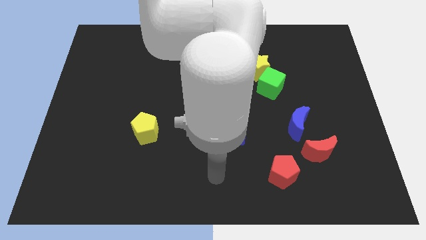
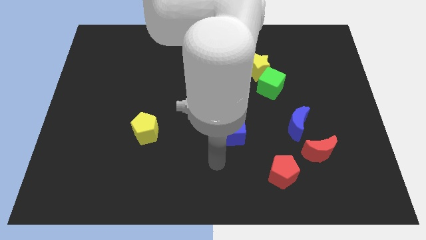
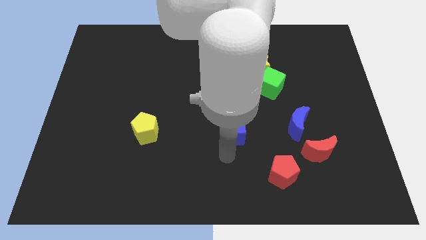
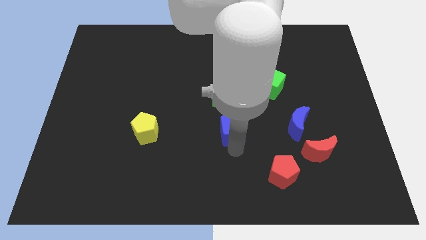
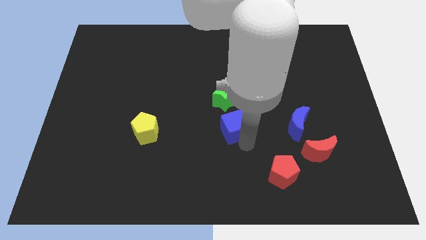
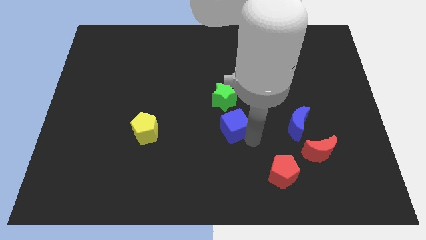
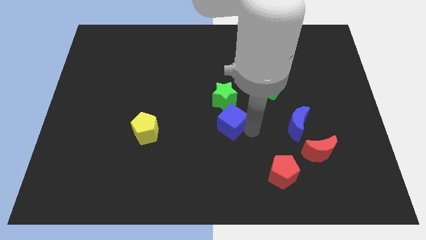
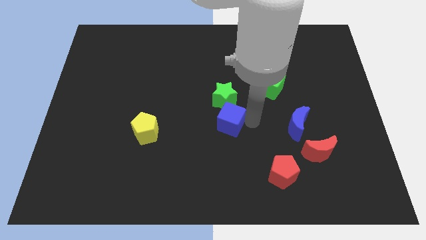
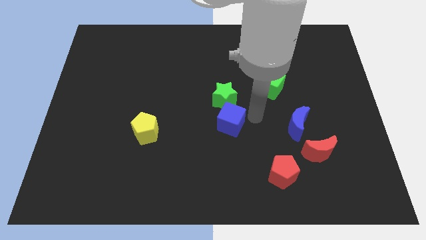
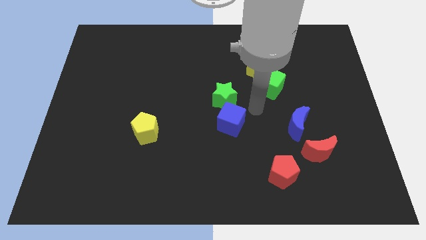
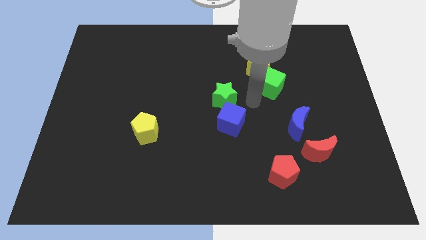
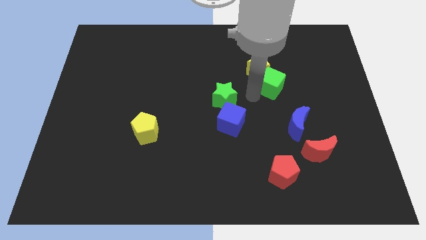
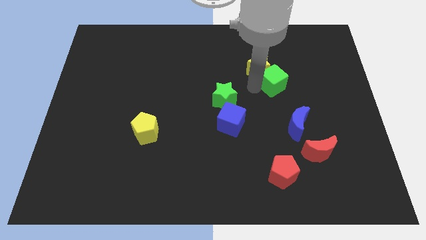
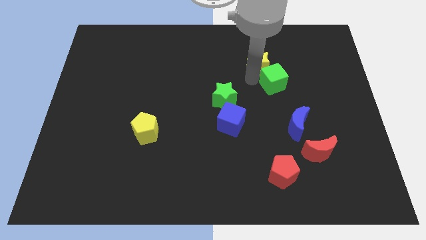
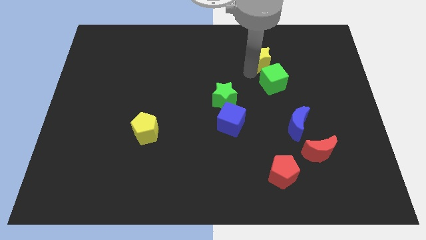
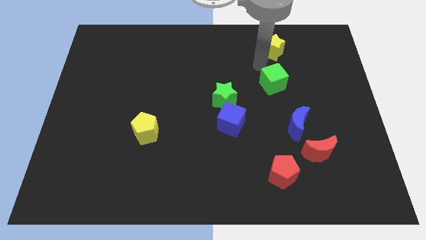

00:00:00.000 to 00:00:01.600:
pull the green cube apart from the yellow star

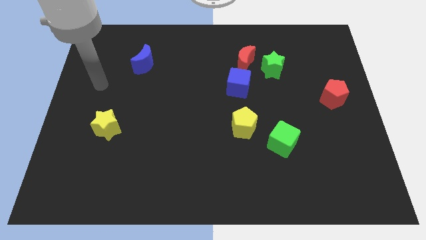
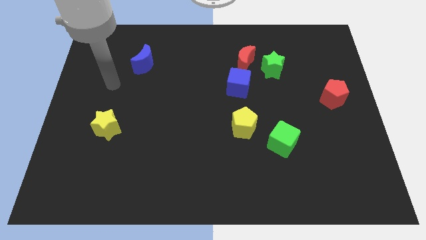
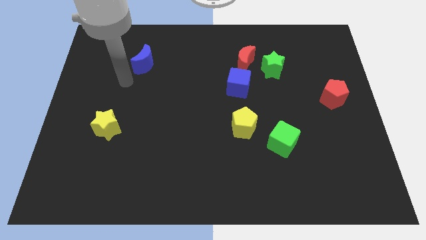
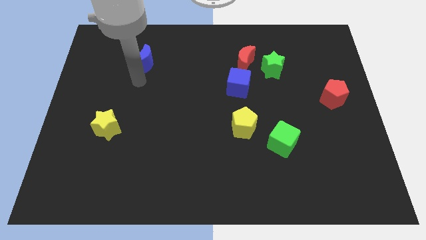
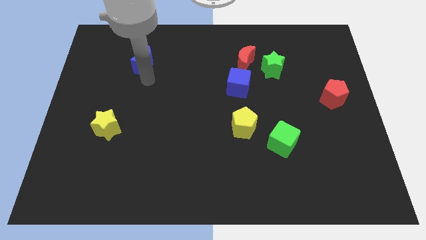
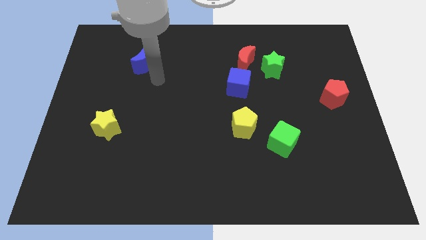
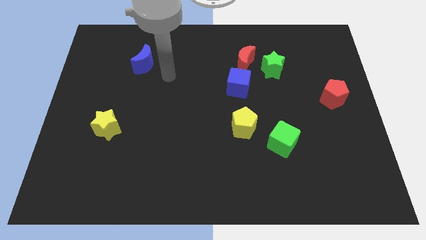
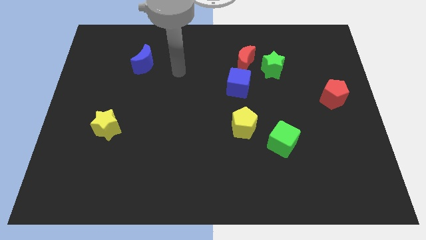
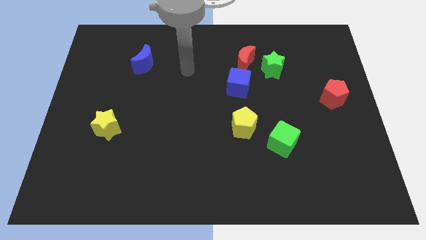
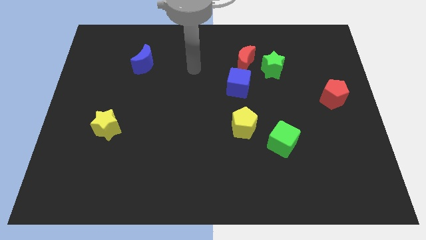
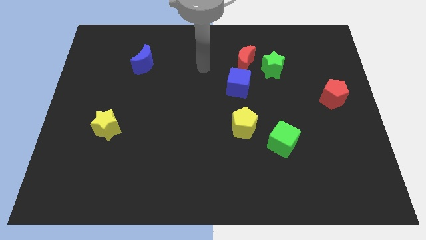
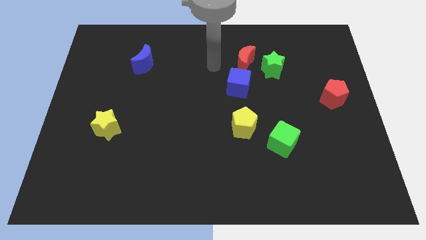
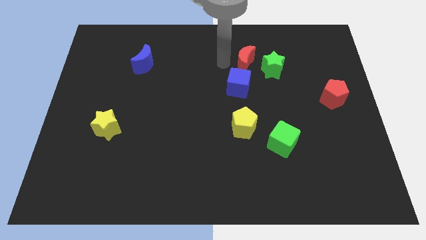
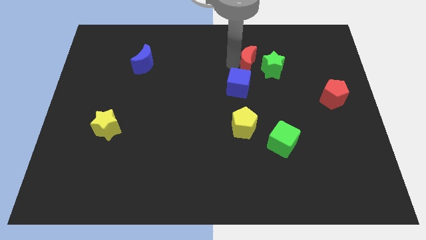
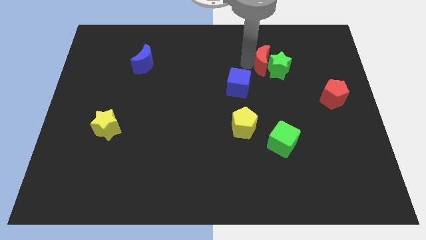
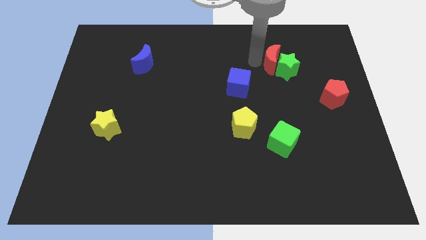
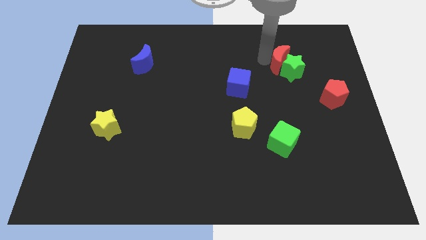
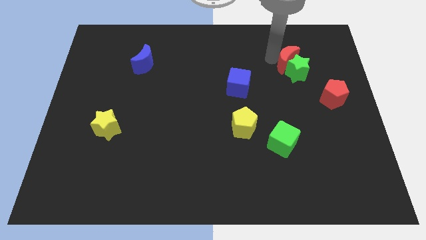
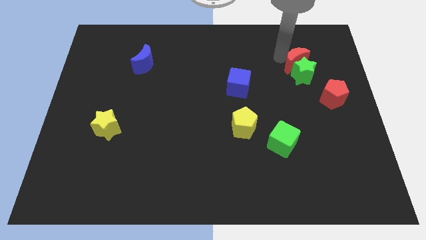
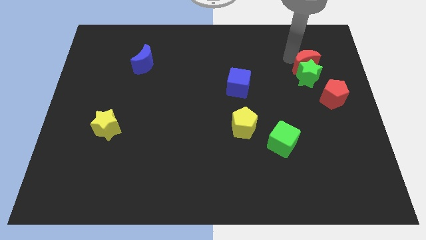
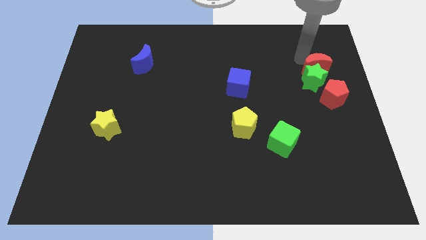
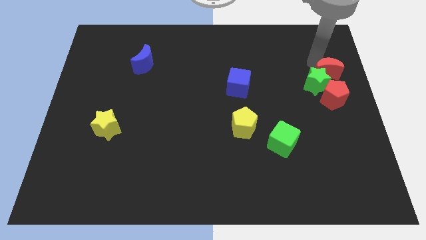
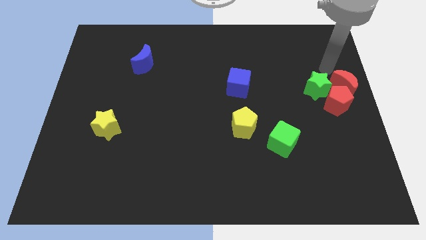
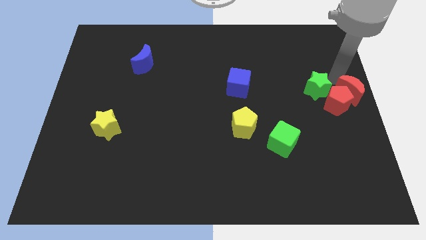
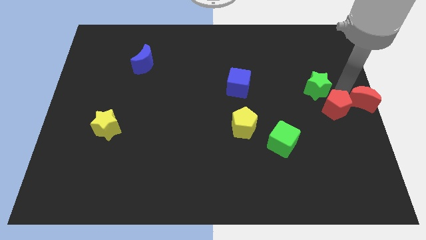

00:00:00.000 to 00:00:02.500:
move the green star away from the red moon

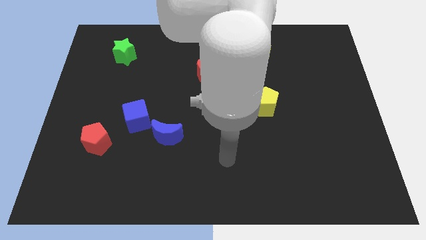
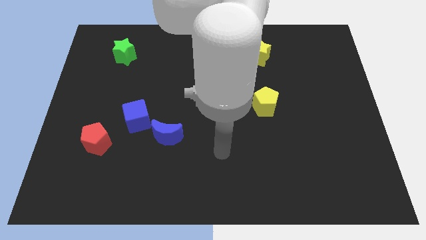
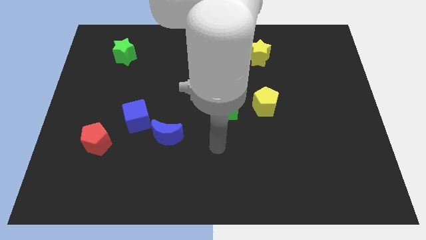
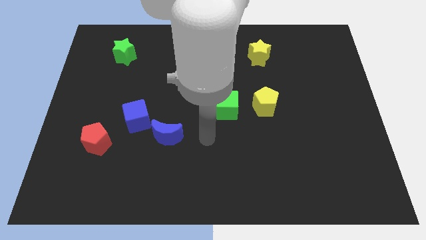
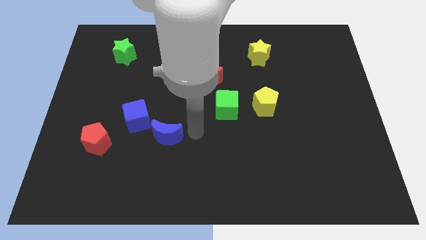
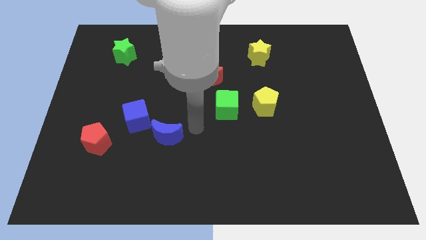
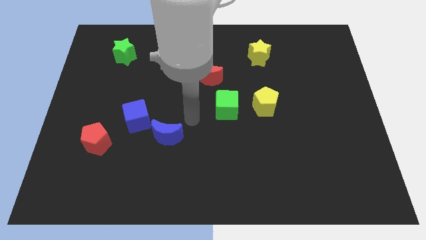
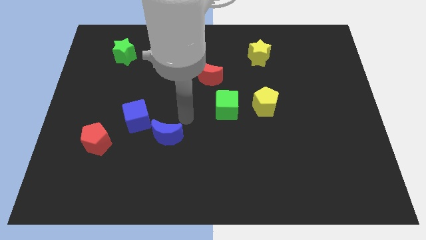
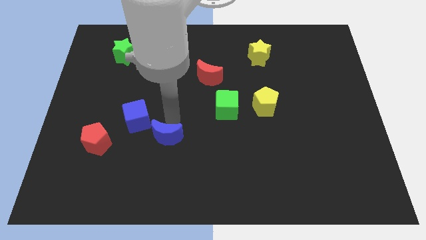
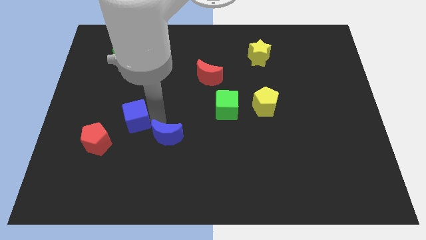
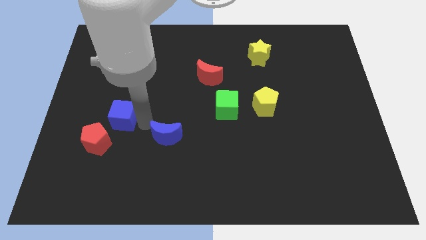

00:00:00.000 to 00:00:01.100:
move the blue moon away from the blue cube

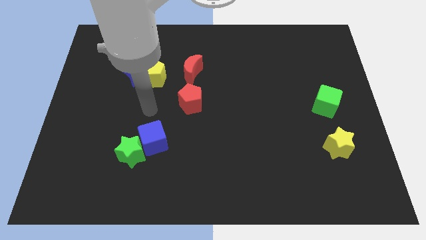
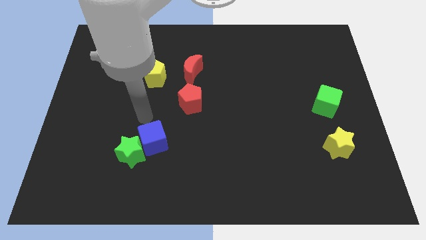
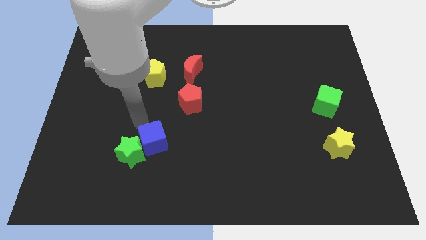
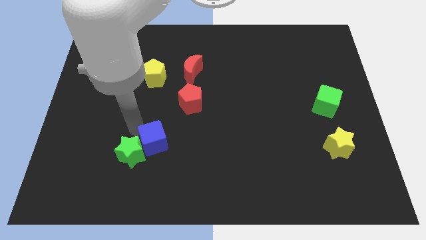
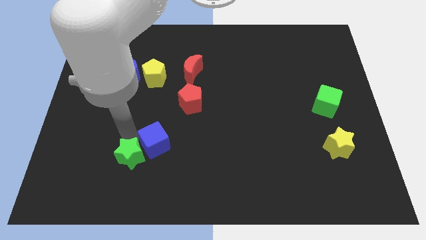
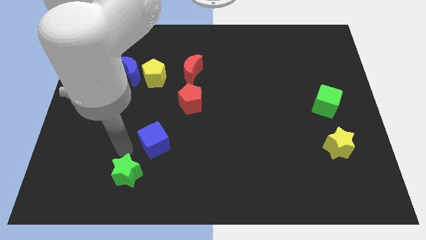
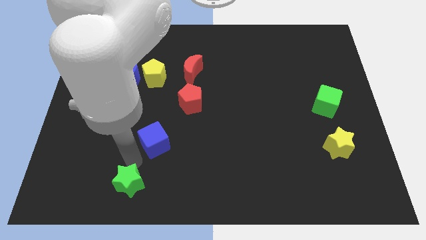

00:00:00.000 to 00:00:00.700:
pull the blue cube apart from the green star

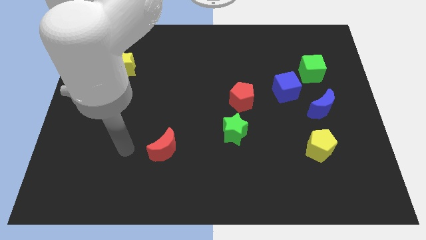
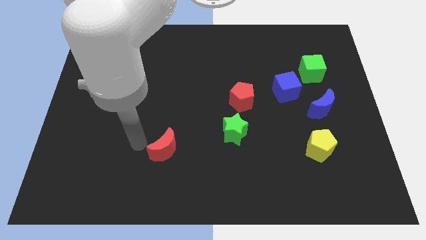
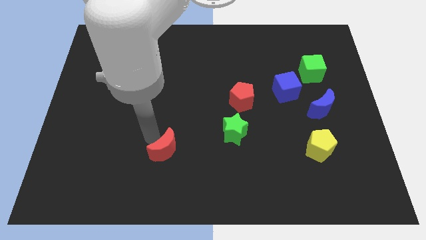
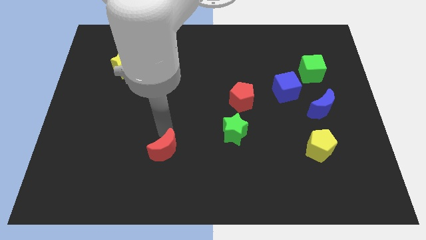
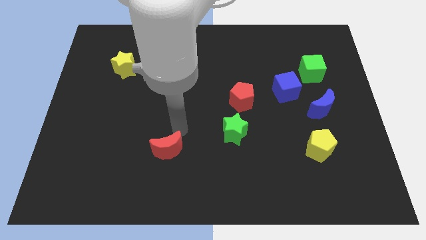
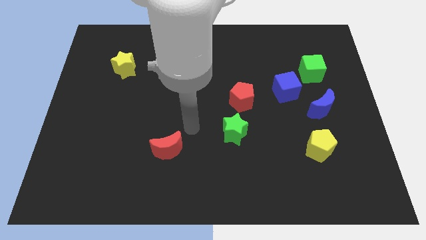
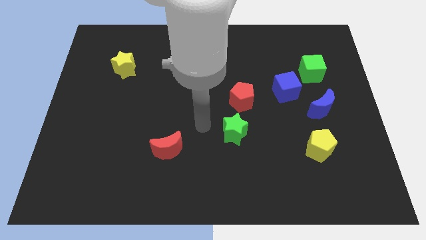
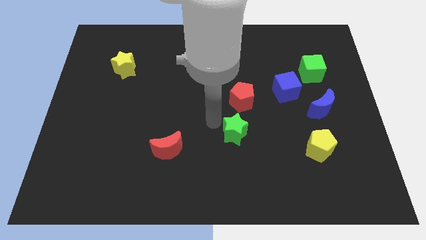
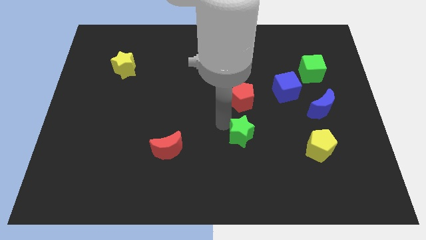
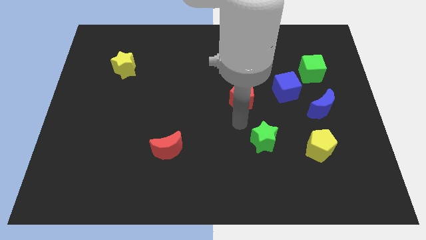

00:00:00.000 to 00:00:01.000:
move the red pentagon away from the green star

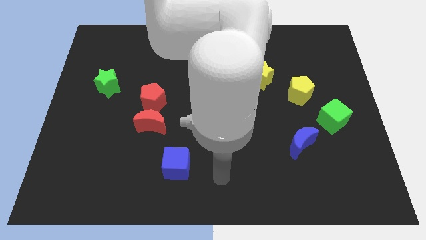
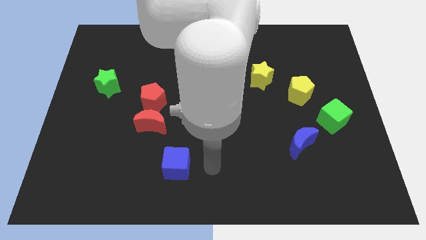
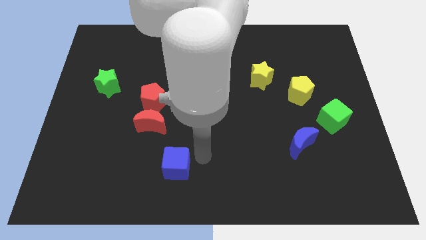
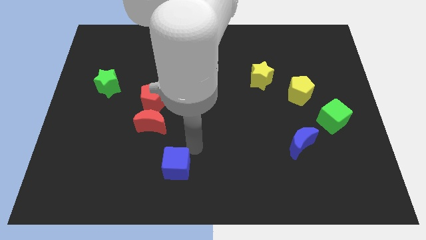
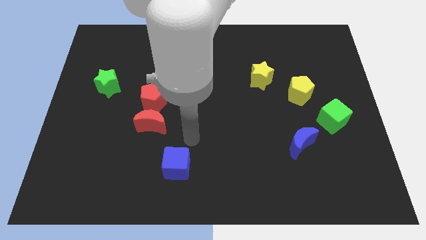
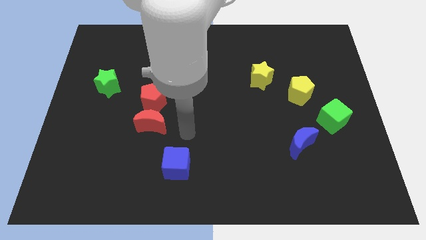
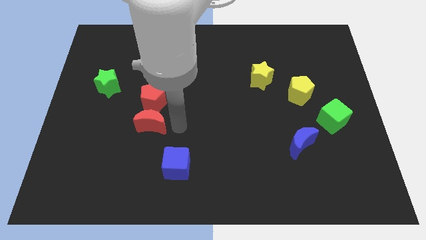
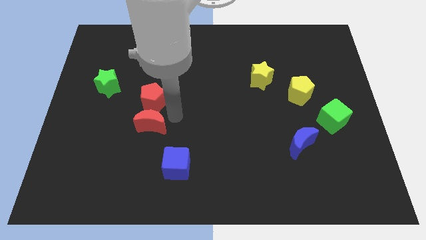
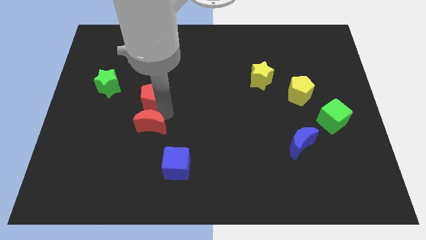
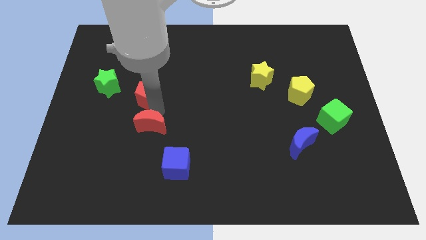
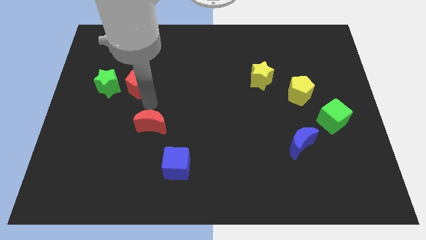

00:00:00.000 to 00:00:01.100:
separate the red moon from the red pentagon

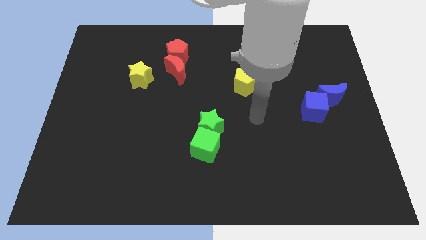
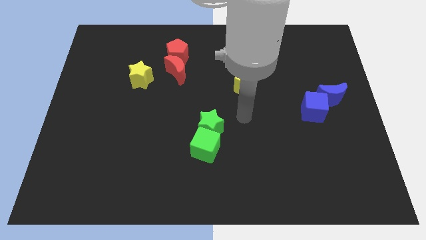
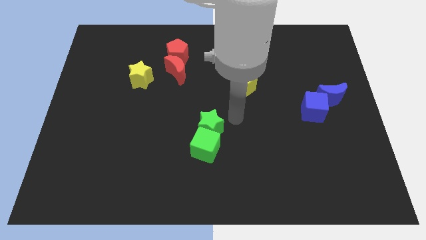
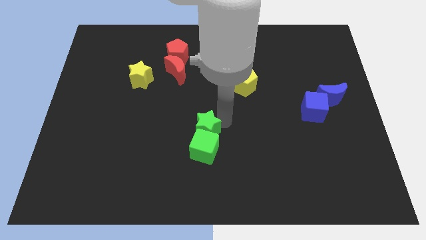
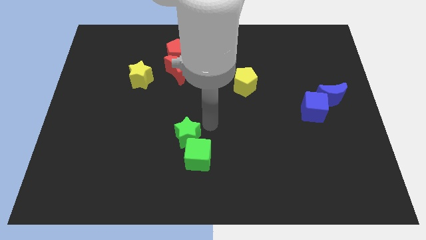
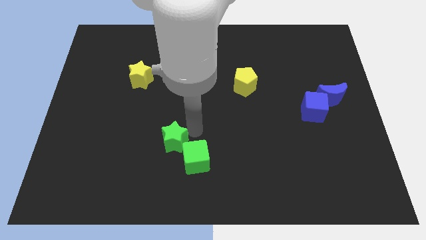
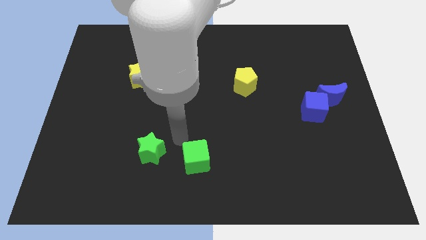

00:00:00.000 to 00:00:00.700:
move the green cube away from the green star

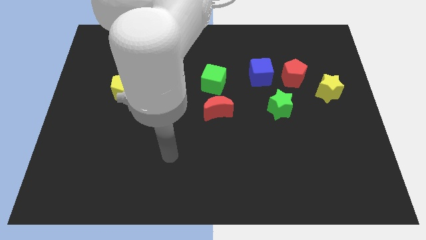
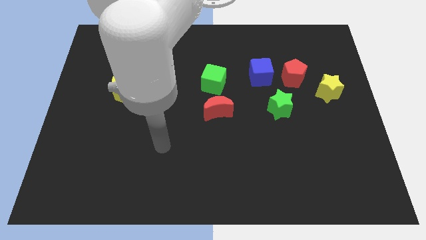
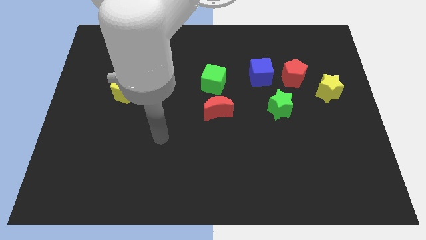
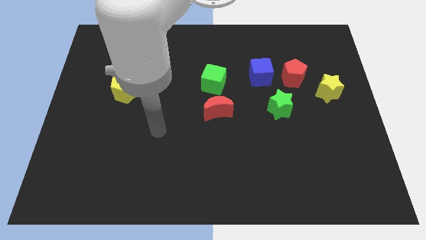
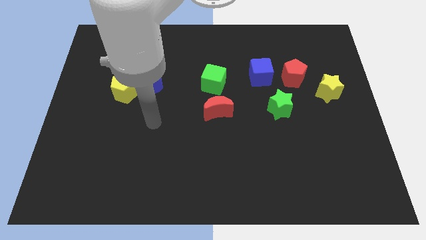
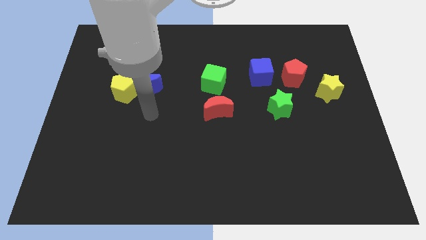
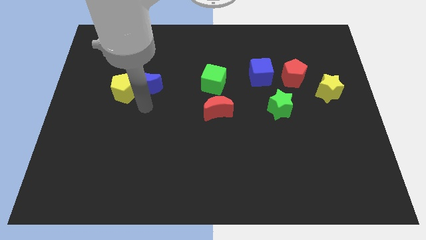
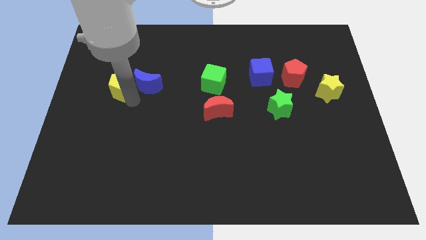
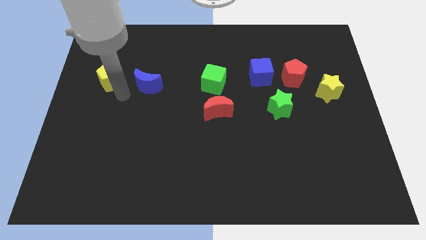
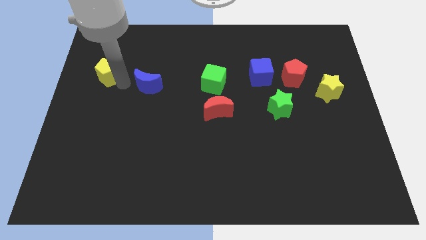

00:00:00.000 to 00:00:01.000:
pull the blue moon apart from the yellow pentagon
